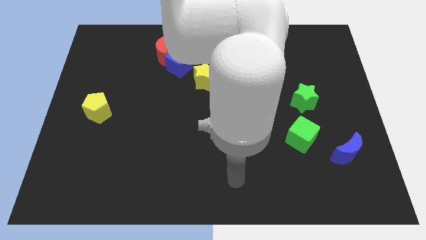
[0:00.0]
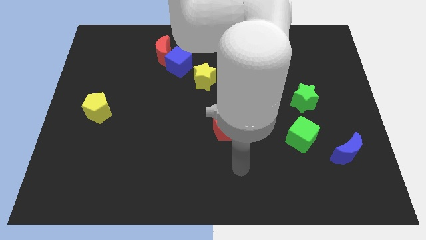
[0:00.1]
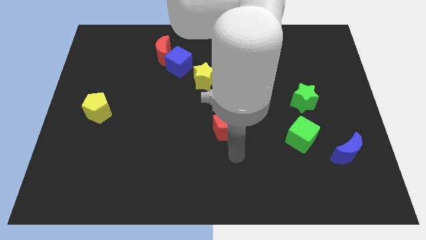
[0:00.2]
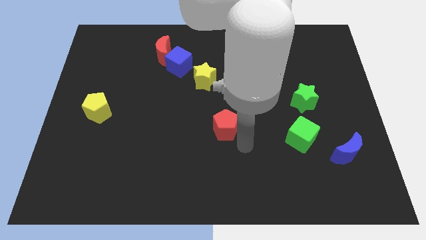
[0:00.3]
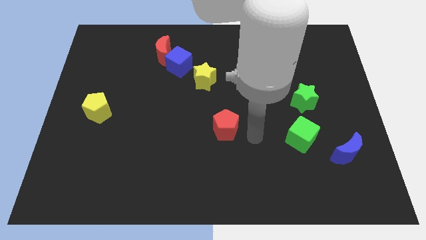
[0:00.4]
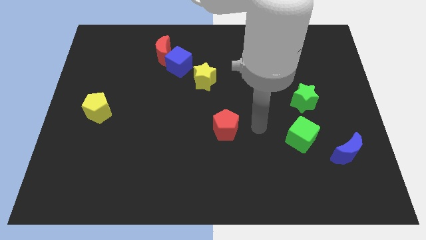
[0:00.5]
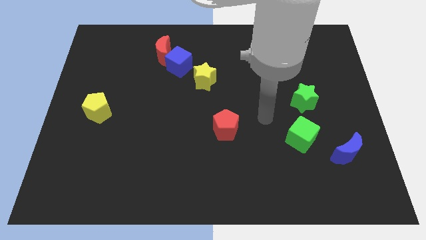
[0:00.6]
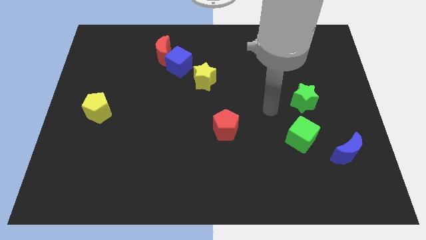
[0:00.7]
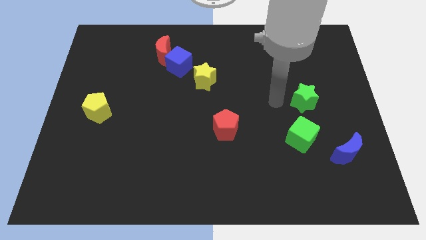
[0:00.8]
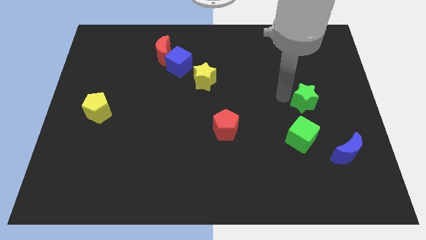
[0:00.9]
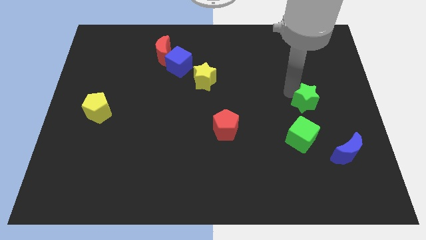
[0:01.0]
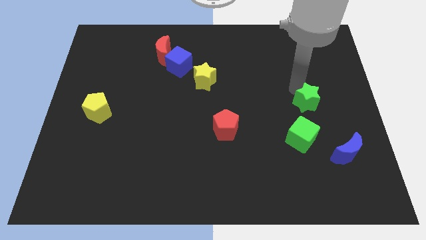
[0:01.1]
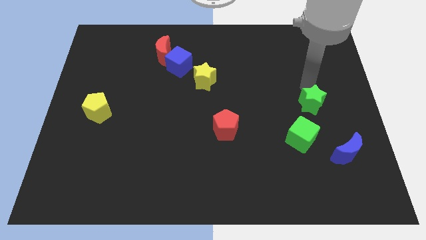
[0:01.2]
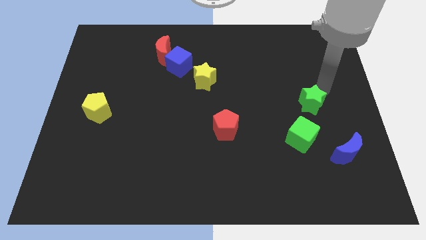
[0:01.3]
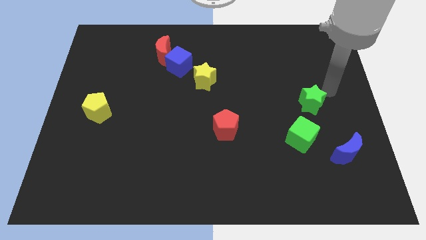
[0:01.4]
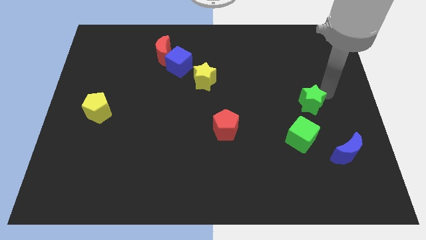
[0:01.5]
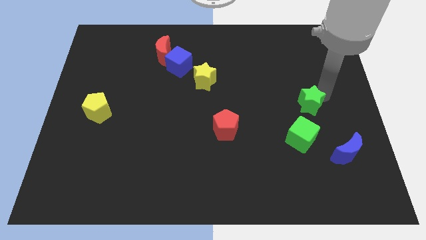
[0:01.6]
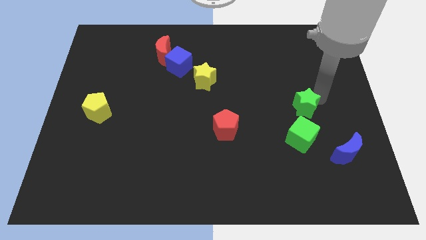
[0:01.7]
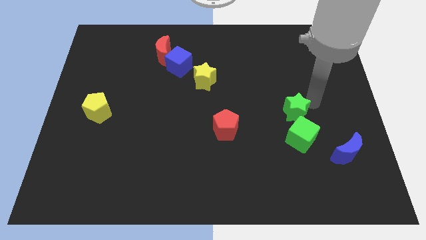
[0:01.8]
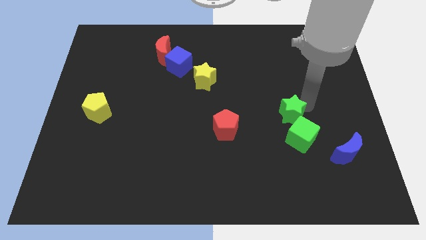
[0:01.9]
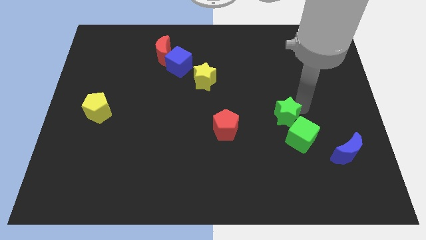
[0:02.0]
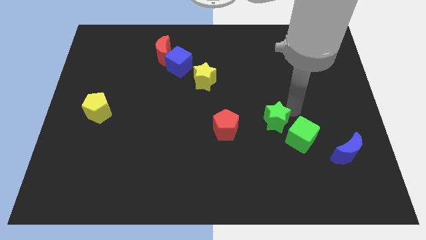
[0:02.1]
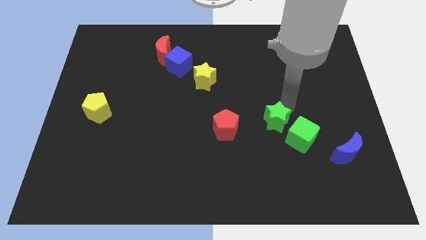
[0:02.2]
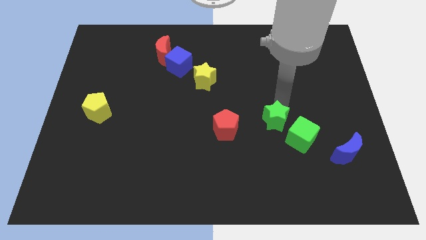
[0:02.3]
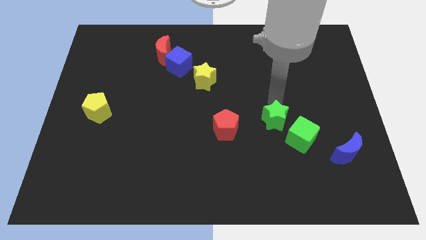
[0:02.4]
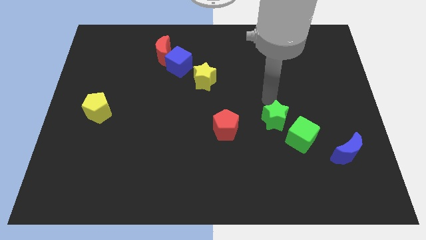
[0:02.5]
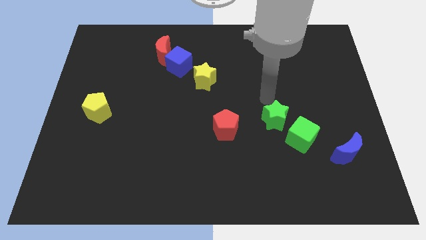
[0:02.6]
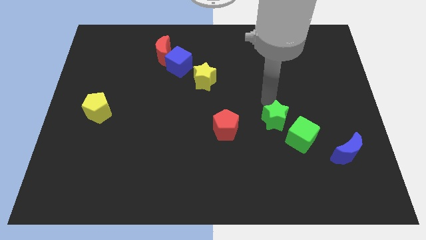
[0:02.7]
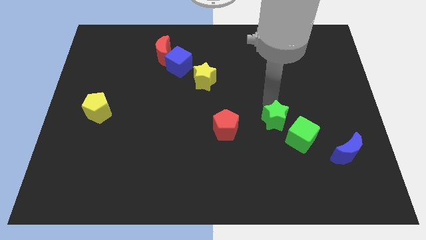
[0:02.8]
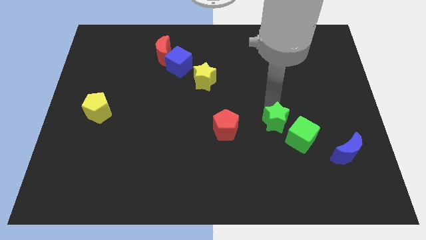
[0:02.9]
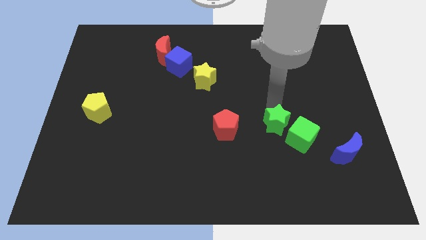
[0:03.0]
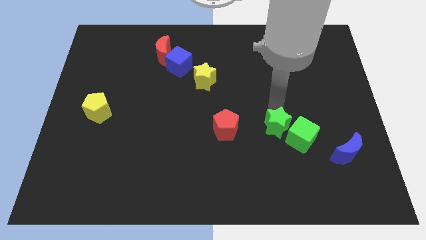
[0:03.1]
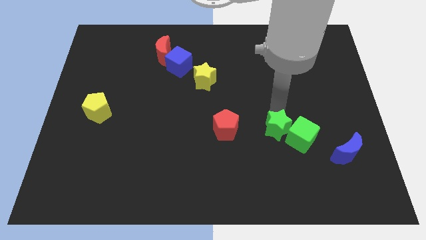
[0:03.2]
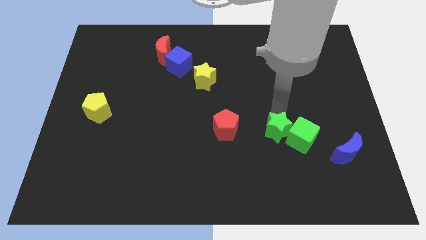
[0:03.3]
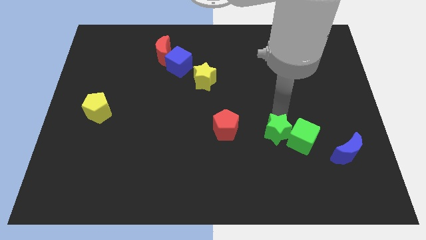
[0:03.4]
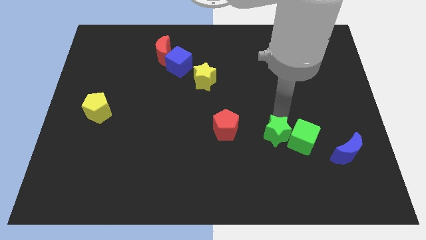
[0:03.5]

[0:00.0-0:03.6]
push the green star somewhat down

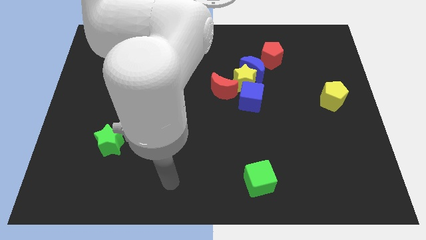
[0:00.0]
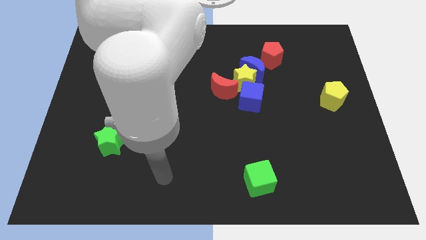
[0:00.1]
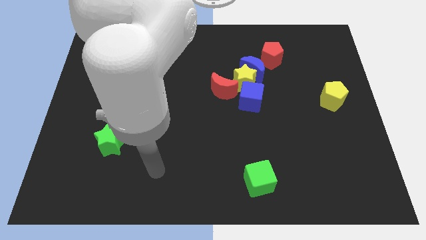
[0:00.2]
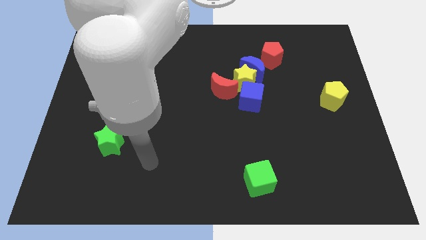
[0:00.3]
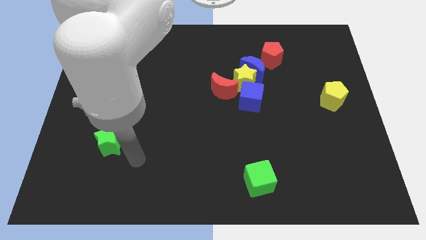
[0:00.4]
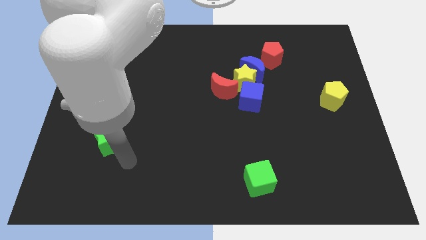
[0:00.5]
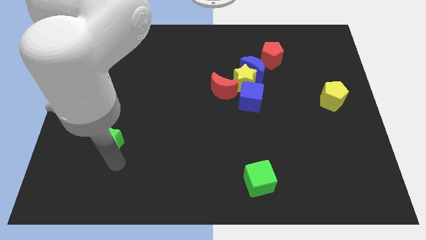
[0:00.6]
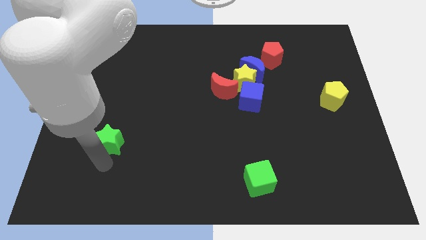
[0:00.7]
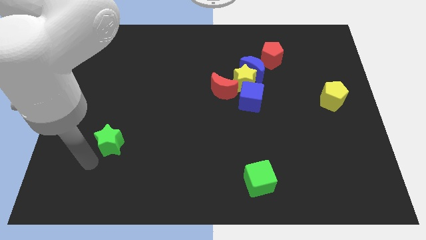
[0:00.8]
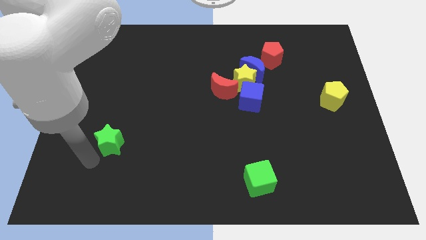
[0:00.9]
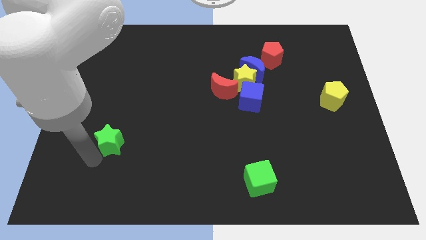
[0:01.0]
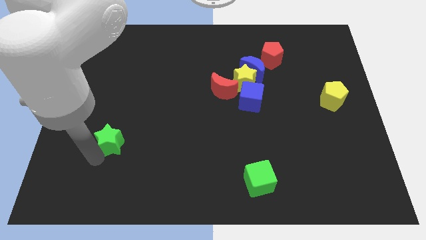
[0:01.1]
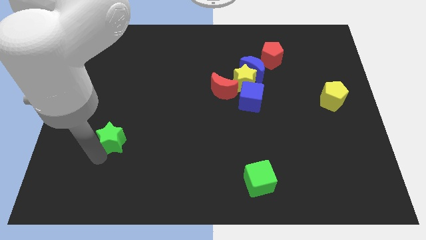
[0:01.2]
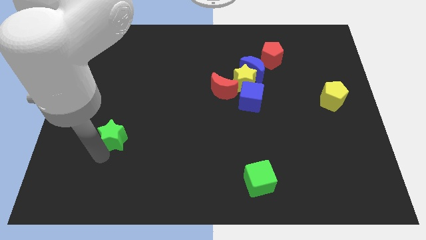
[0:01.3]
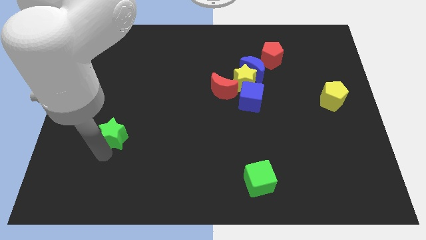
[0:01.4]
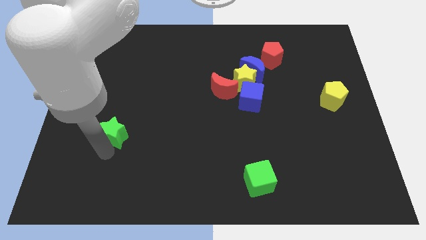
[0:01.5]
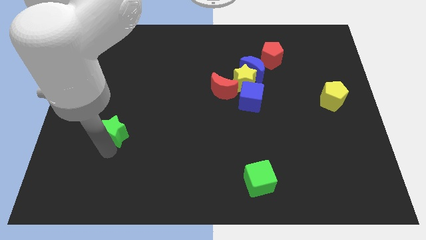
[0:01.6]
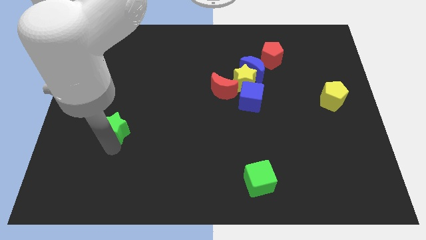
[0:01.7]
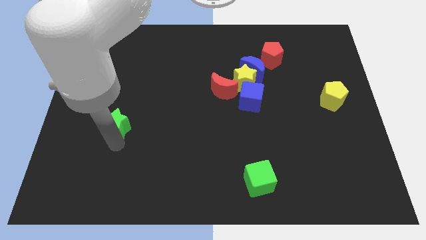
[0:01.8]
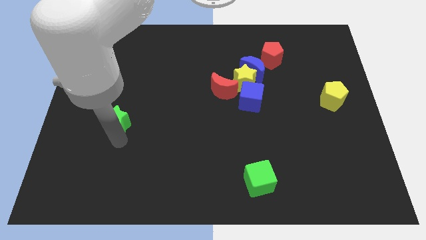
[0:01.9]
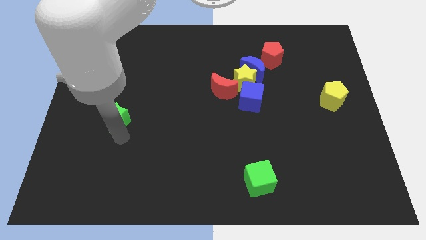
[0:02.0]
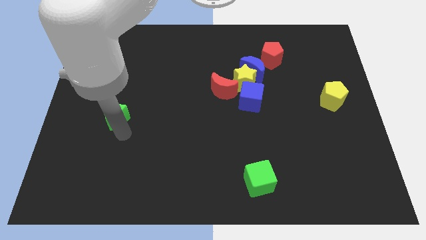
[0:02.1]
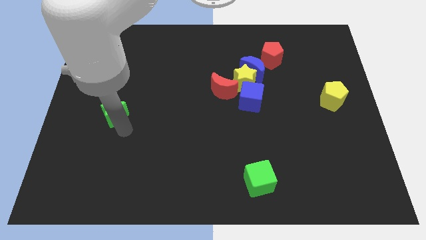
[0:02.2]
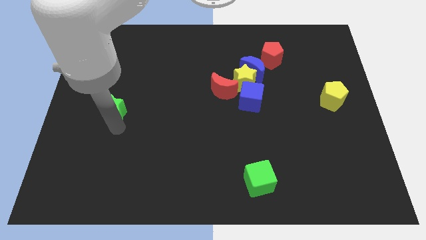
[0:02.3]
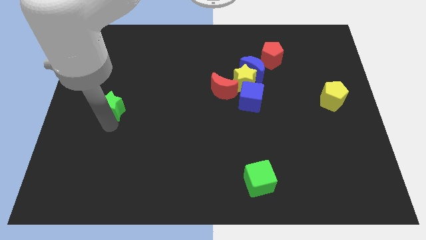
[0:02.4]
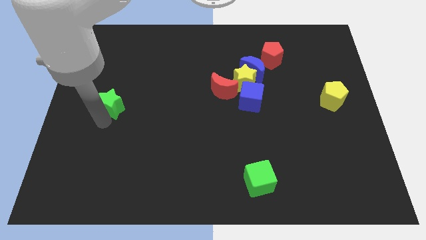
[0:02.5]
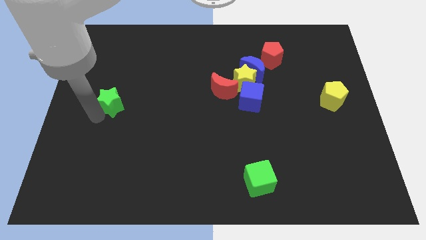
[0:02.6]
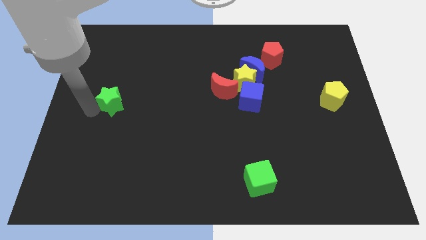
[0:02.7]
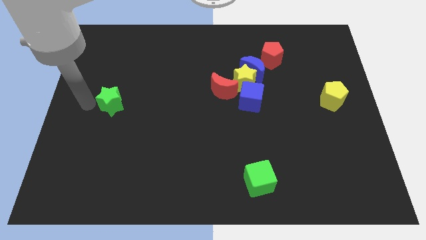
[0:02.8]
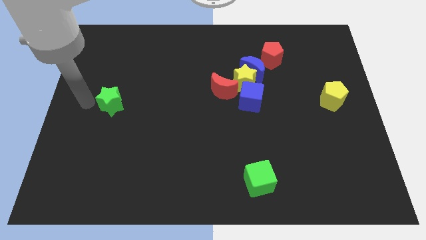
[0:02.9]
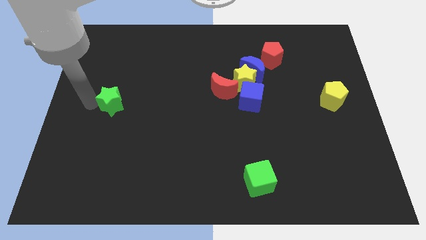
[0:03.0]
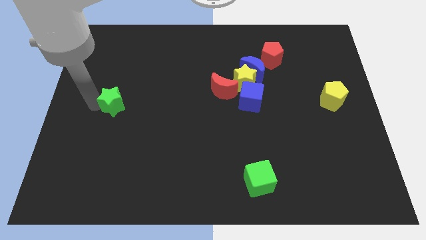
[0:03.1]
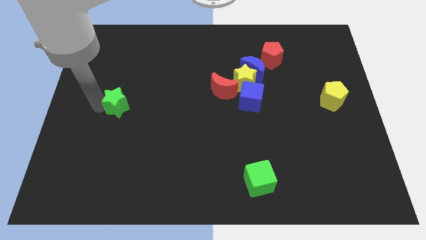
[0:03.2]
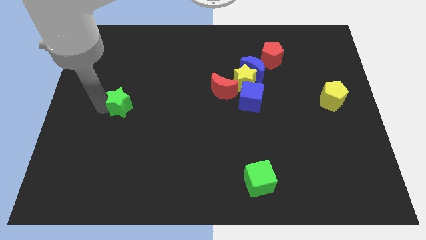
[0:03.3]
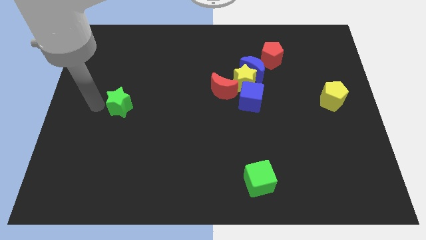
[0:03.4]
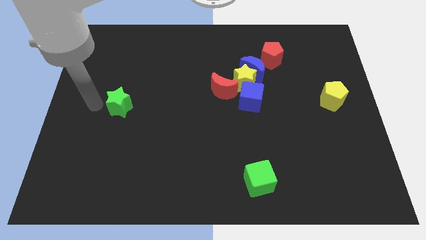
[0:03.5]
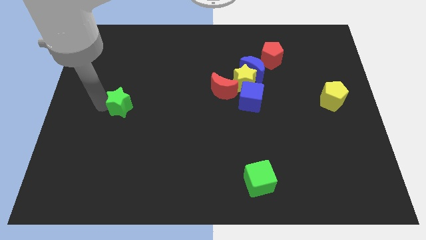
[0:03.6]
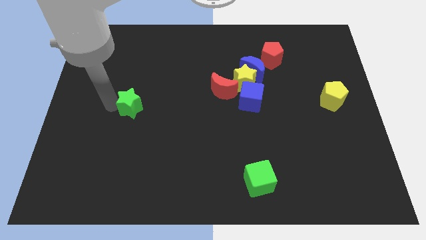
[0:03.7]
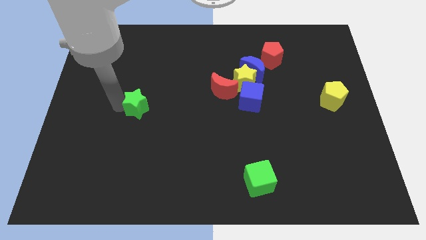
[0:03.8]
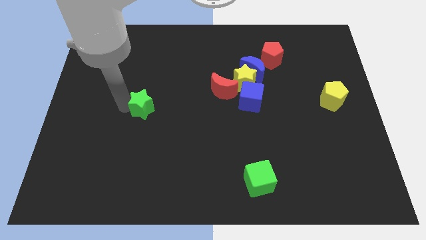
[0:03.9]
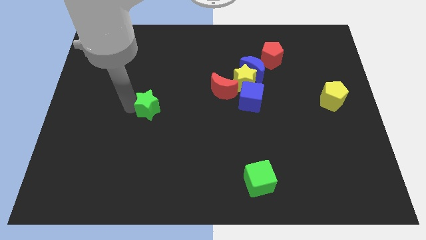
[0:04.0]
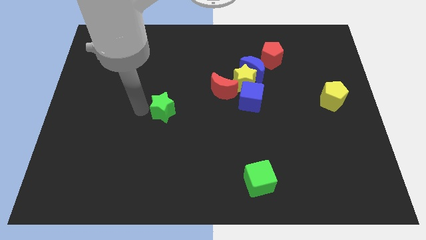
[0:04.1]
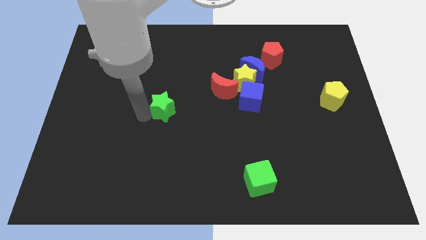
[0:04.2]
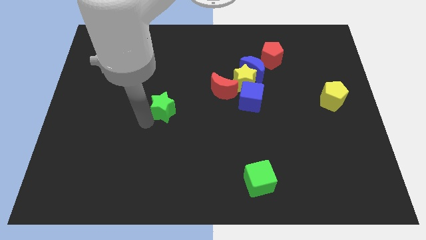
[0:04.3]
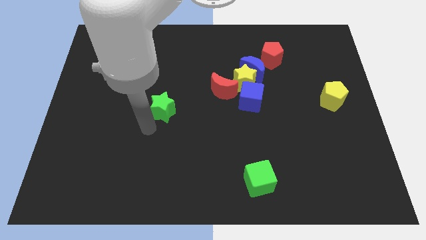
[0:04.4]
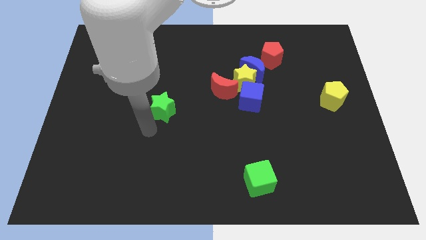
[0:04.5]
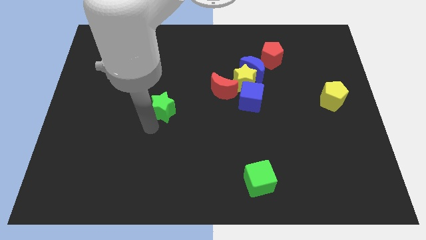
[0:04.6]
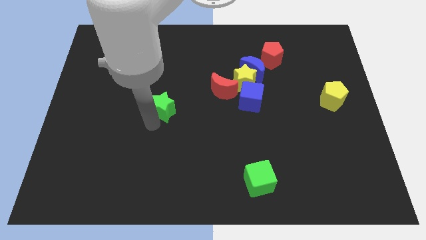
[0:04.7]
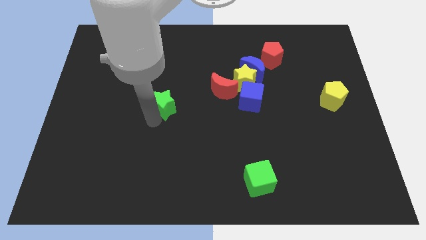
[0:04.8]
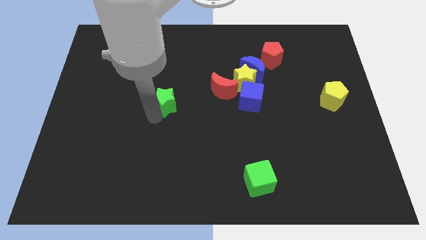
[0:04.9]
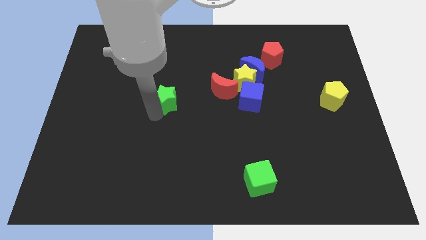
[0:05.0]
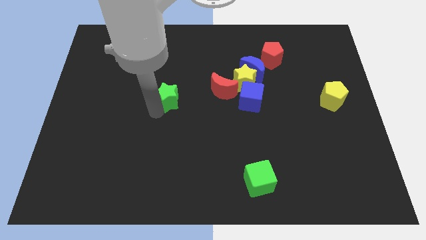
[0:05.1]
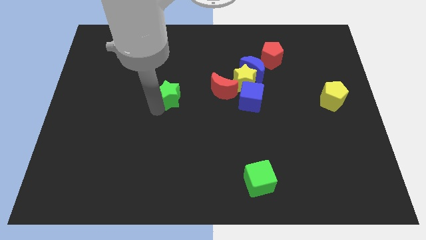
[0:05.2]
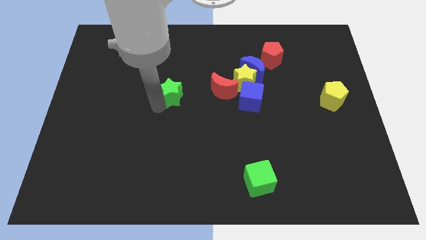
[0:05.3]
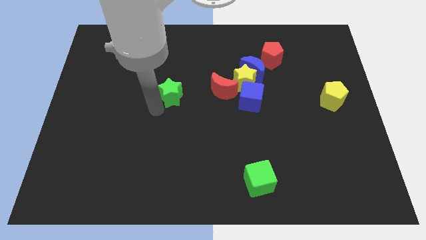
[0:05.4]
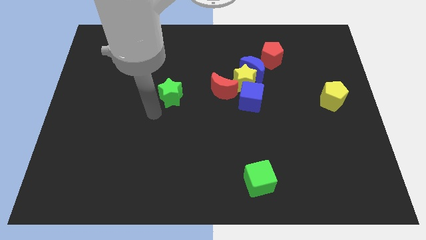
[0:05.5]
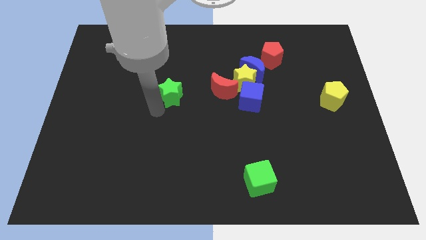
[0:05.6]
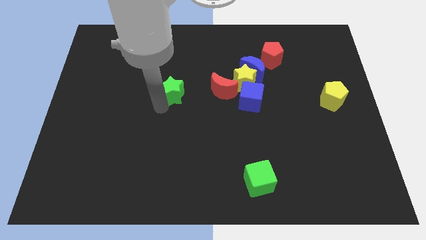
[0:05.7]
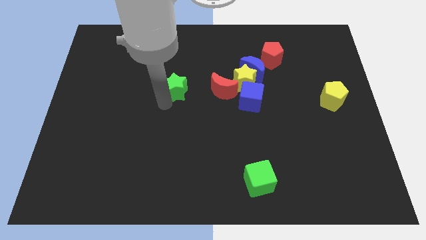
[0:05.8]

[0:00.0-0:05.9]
move the green star diagonally up and right
